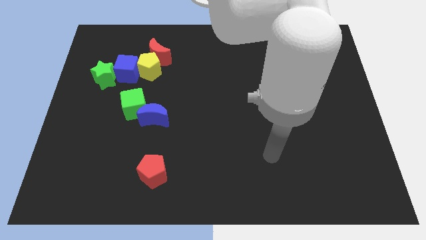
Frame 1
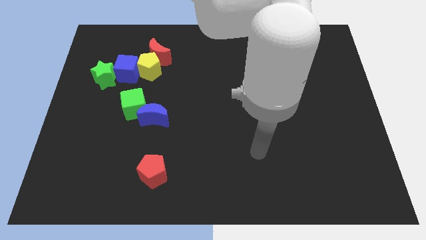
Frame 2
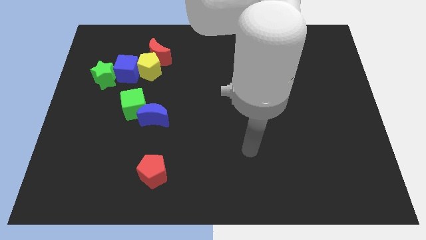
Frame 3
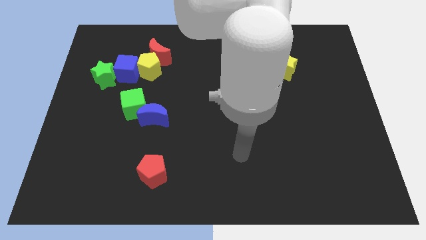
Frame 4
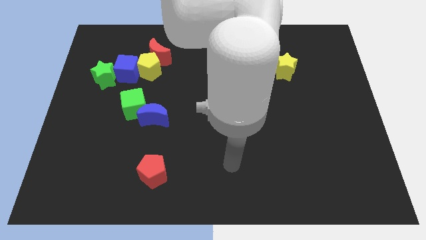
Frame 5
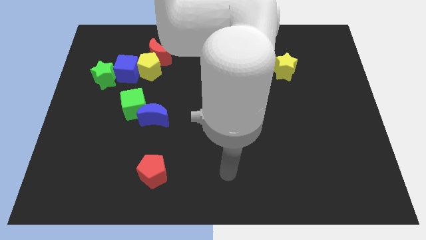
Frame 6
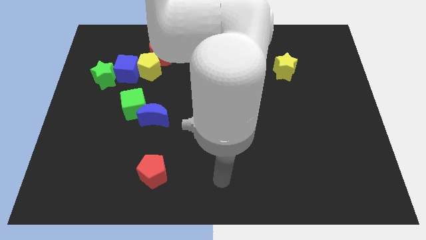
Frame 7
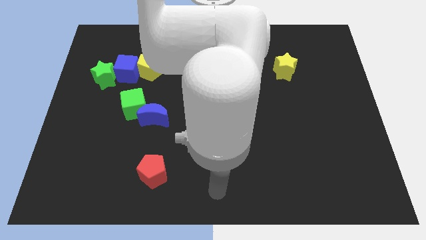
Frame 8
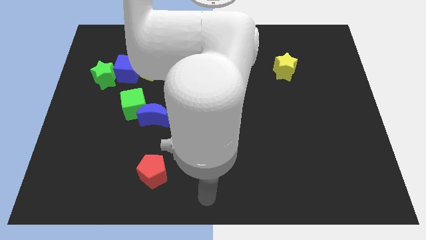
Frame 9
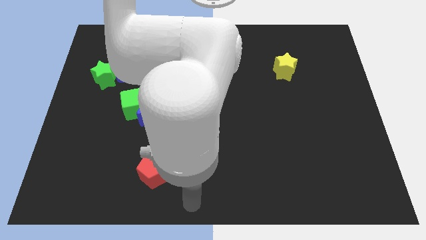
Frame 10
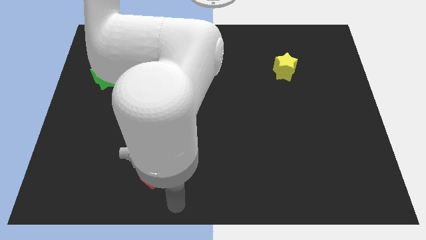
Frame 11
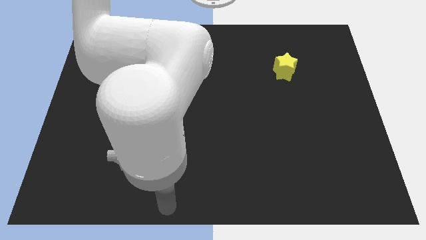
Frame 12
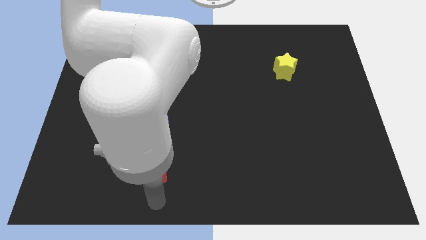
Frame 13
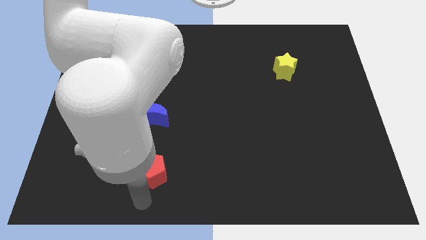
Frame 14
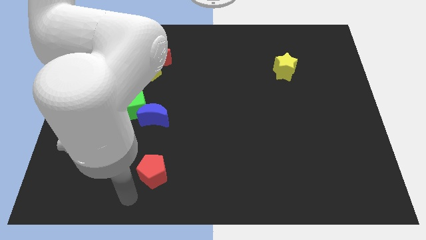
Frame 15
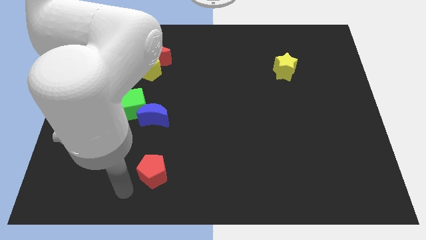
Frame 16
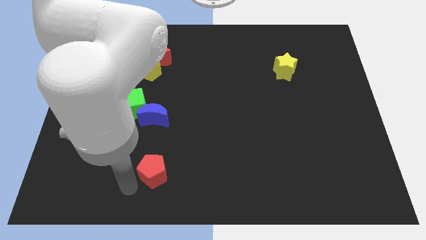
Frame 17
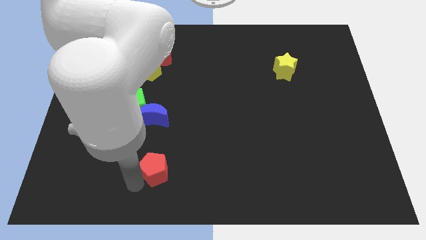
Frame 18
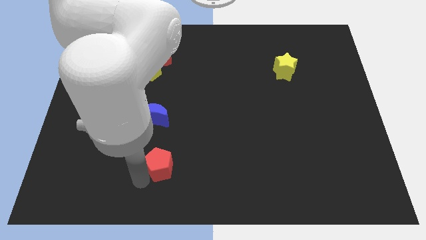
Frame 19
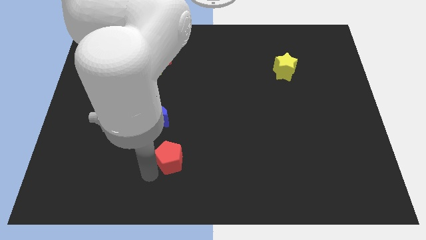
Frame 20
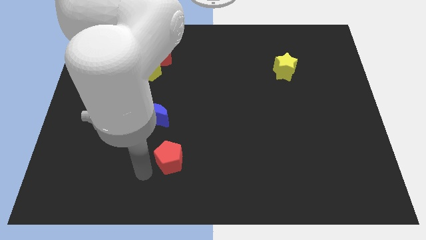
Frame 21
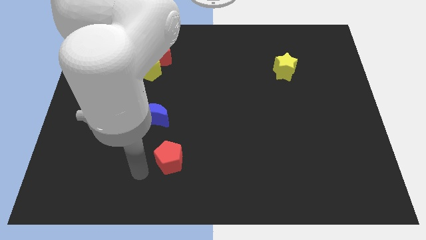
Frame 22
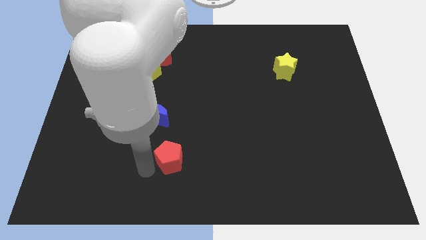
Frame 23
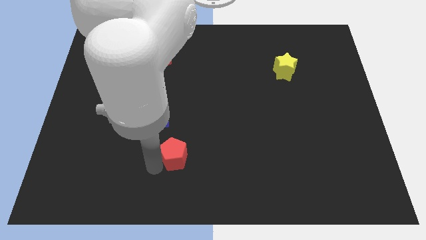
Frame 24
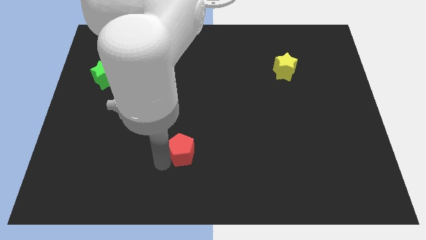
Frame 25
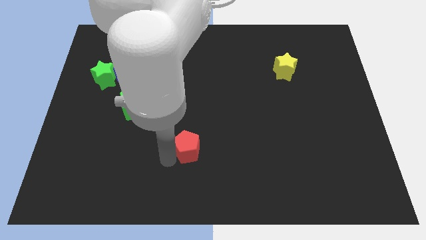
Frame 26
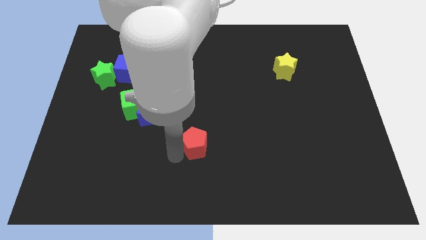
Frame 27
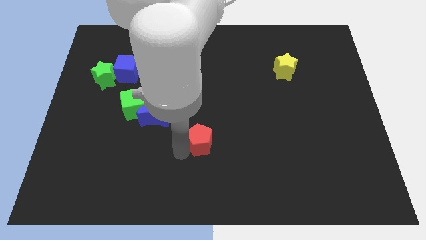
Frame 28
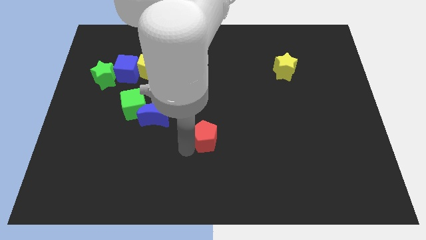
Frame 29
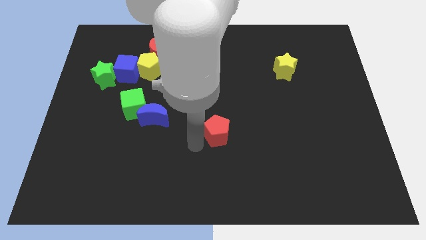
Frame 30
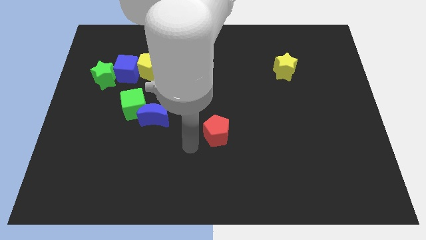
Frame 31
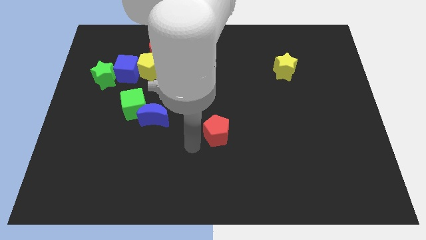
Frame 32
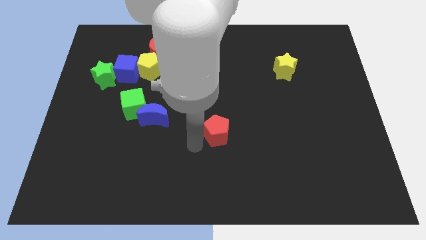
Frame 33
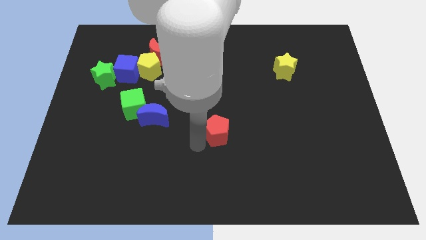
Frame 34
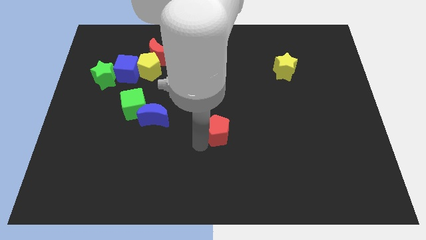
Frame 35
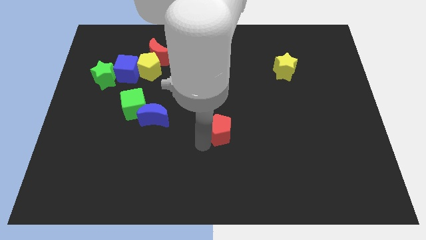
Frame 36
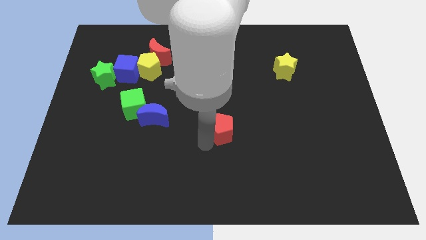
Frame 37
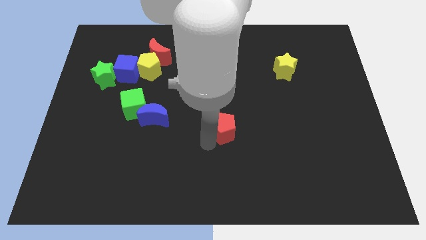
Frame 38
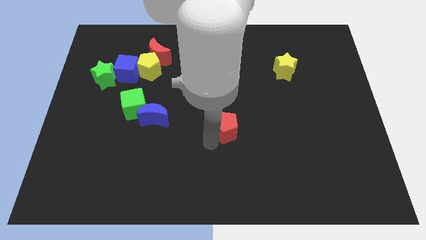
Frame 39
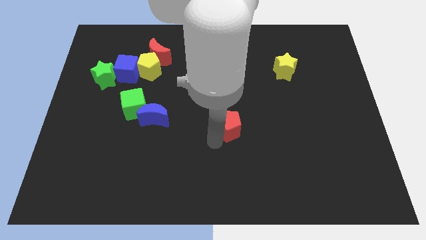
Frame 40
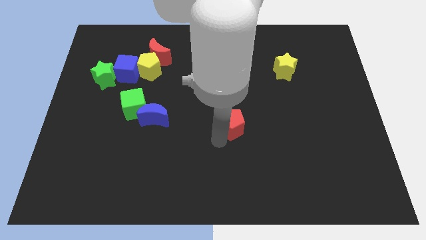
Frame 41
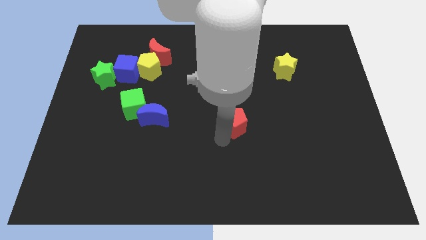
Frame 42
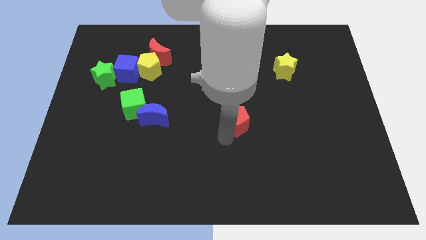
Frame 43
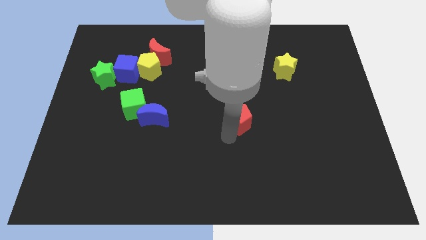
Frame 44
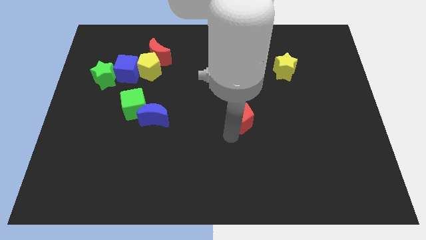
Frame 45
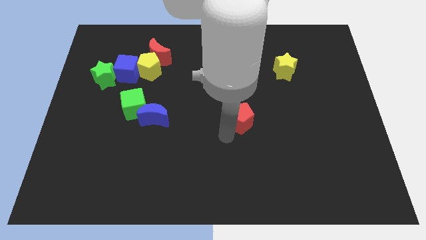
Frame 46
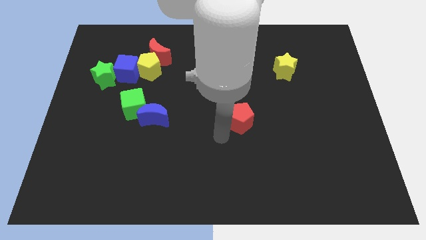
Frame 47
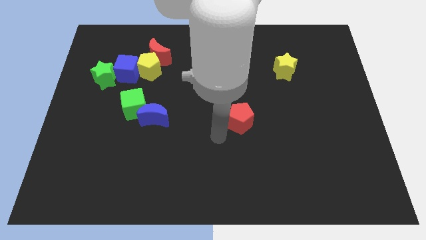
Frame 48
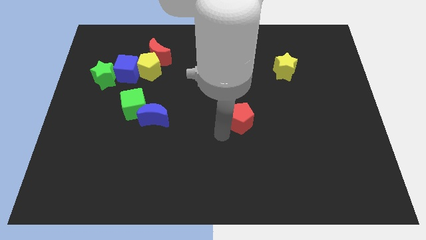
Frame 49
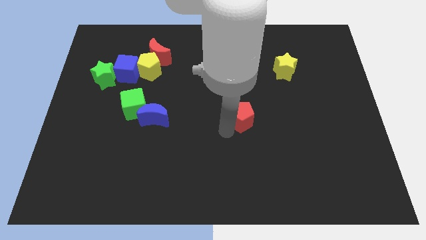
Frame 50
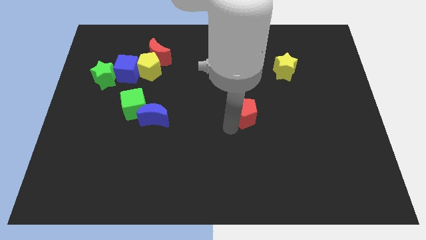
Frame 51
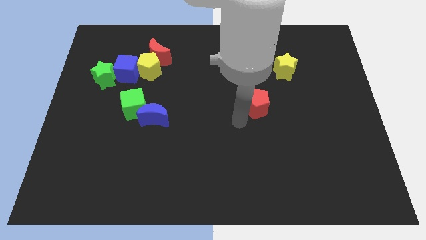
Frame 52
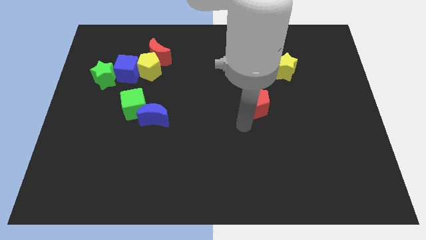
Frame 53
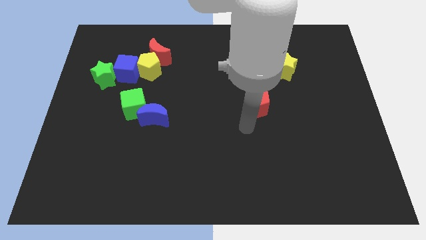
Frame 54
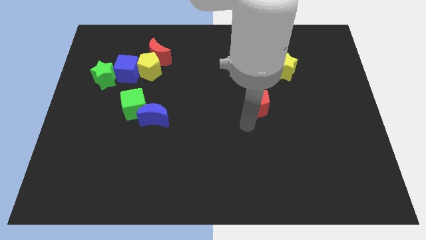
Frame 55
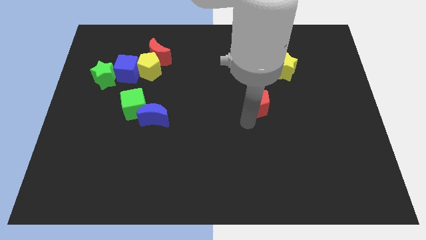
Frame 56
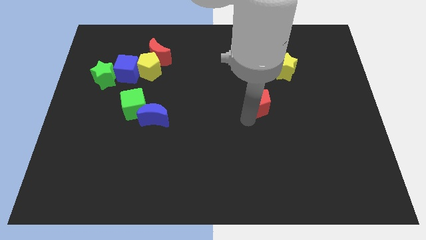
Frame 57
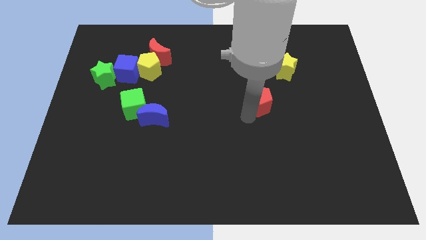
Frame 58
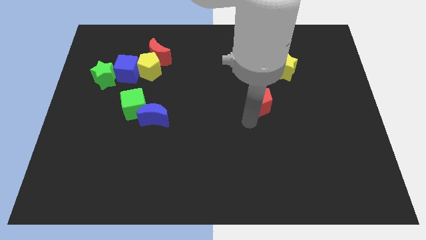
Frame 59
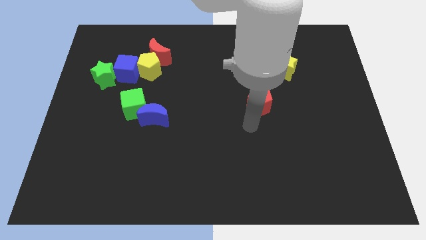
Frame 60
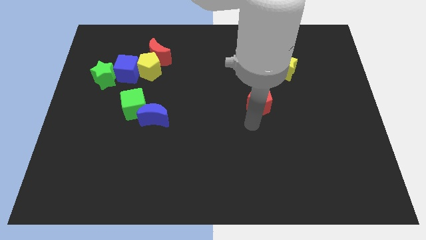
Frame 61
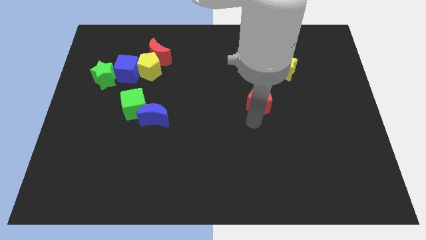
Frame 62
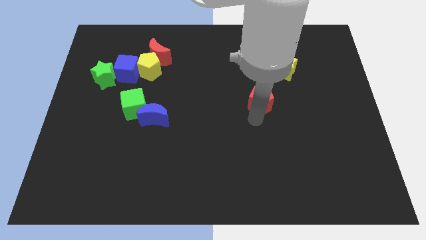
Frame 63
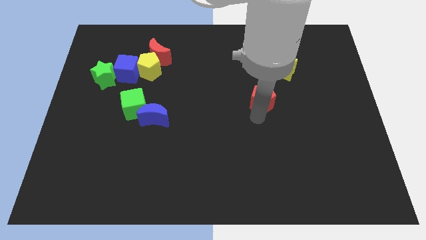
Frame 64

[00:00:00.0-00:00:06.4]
slide the red pentagon to the bottom left of the yellow star

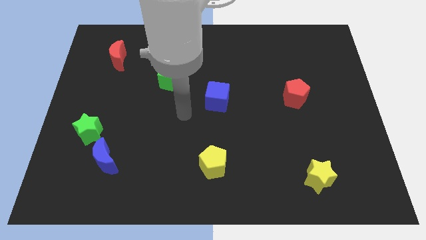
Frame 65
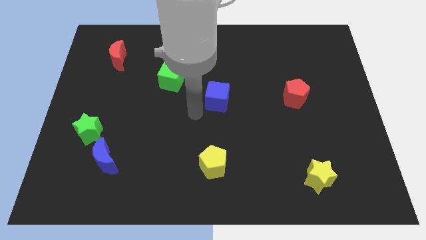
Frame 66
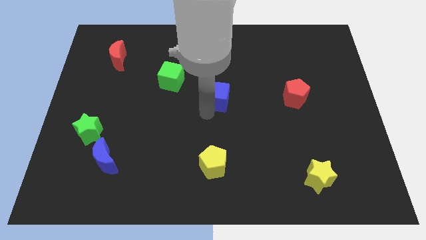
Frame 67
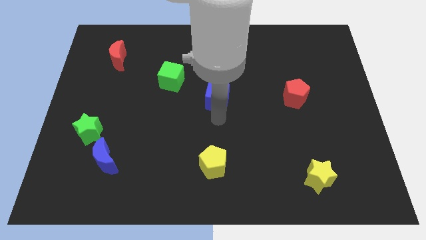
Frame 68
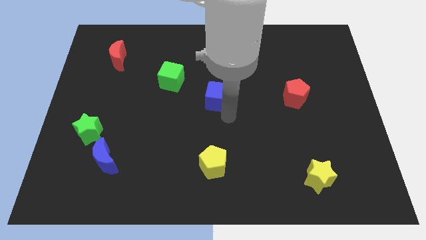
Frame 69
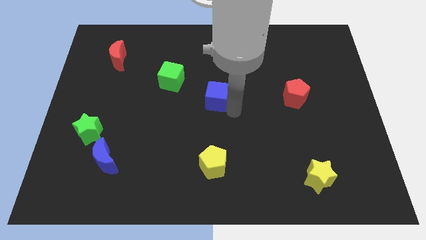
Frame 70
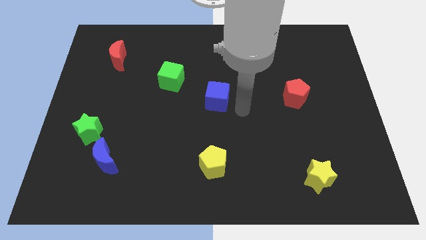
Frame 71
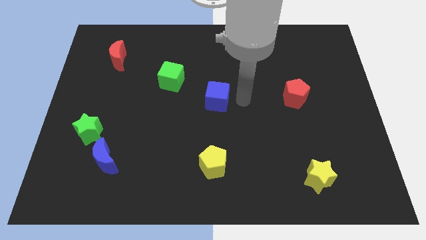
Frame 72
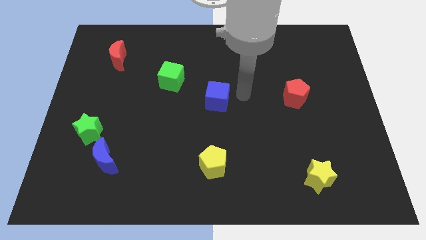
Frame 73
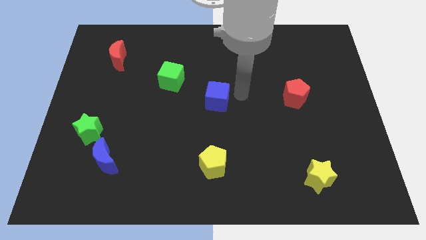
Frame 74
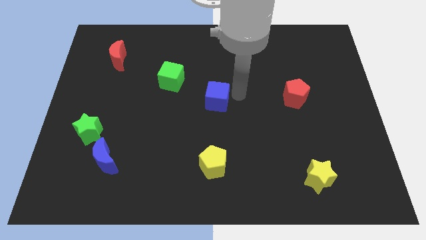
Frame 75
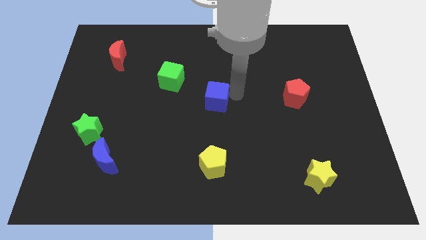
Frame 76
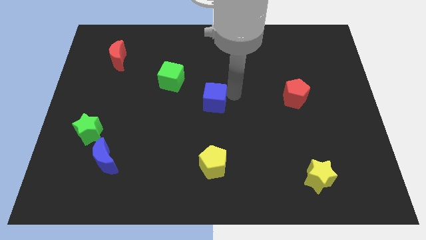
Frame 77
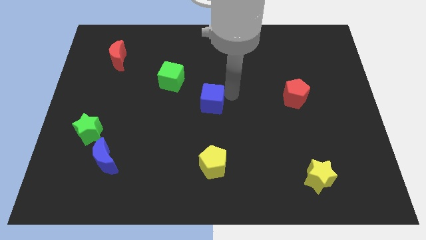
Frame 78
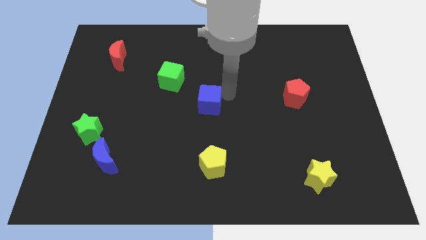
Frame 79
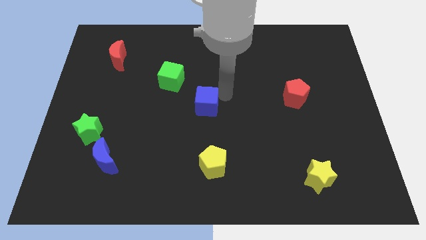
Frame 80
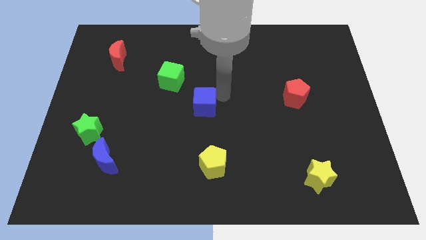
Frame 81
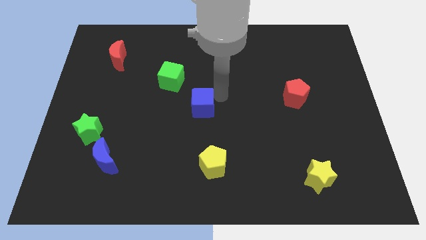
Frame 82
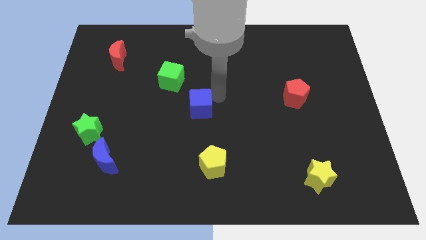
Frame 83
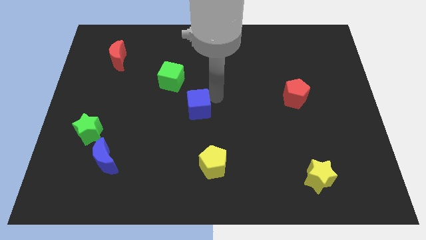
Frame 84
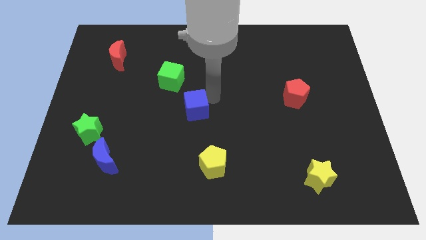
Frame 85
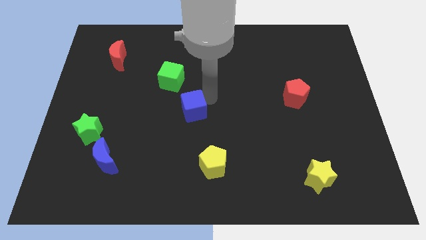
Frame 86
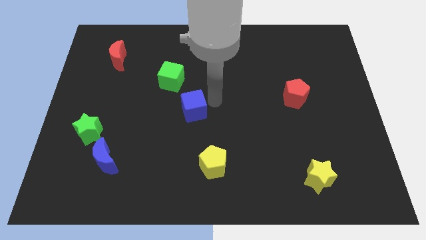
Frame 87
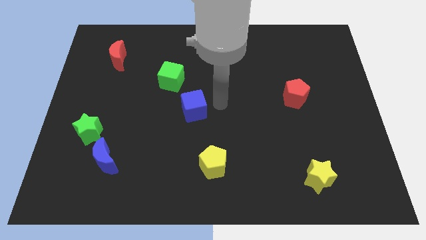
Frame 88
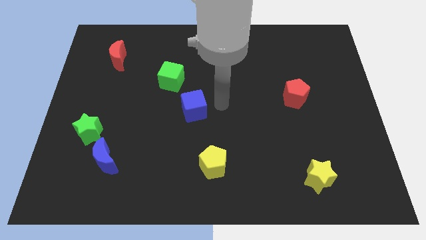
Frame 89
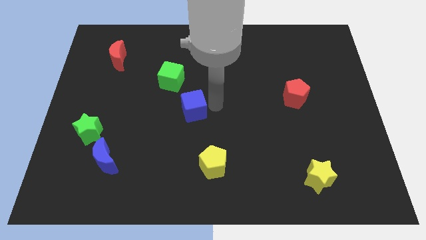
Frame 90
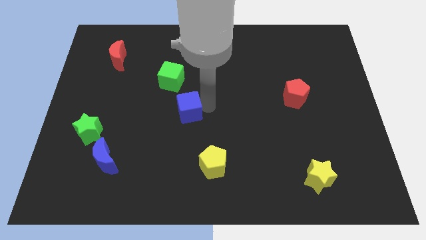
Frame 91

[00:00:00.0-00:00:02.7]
push the blue cube below the green cube
